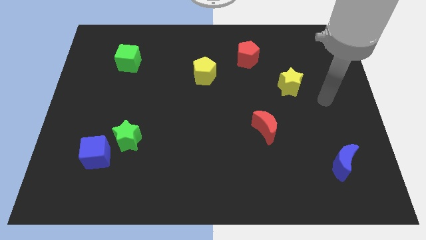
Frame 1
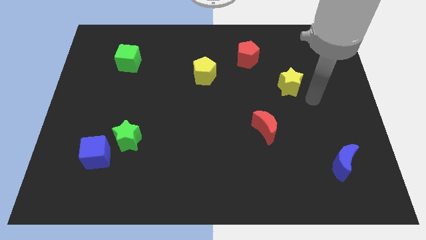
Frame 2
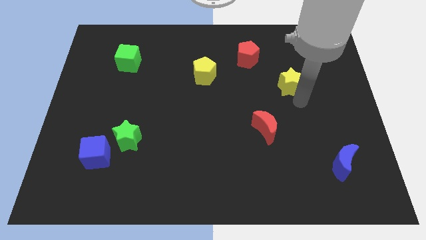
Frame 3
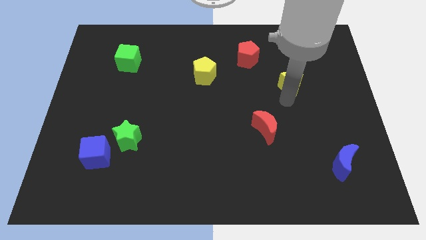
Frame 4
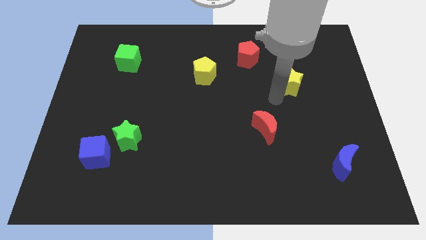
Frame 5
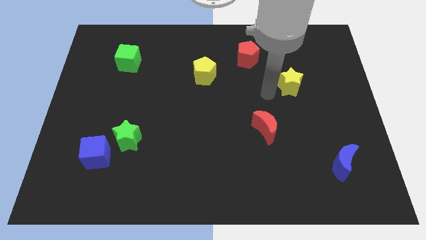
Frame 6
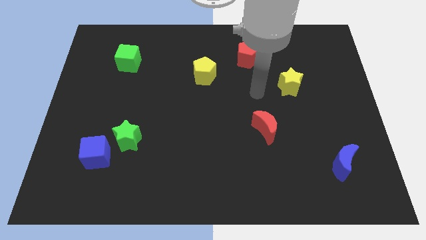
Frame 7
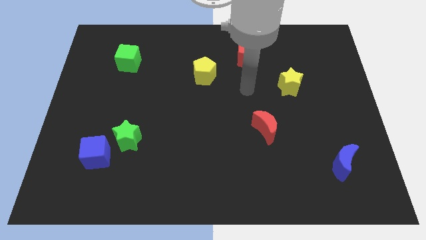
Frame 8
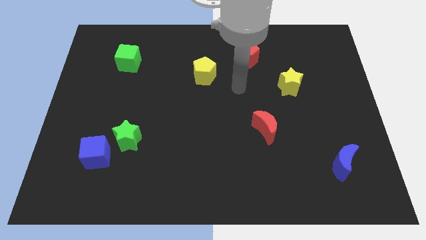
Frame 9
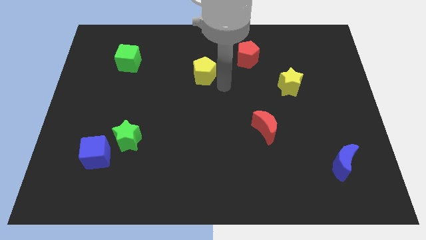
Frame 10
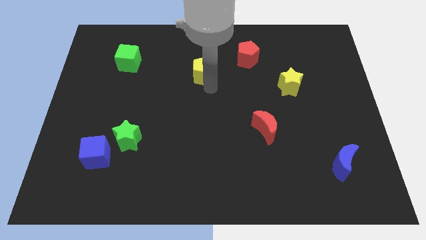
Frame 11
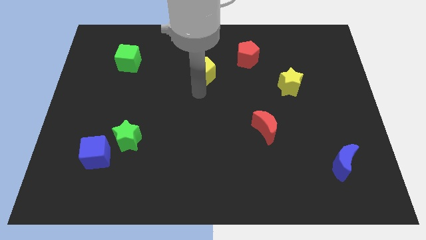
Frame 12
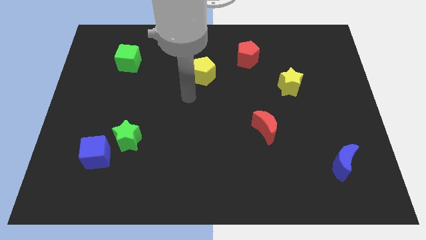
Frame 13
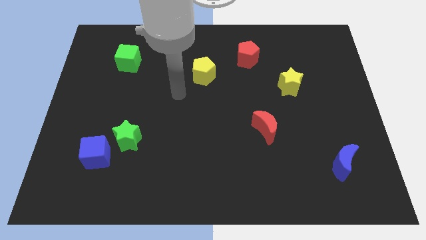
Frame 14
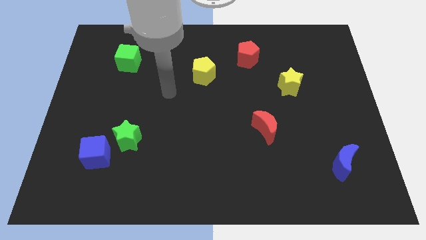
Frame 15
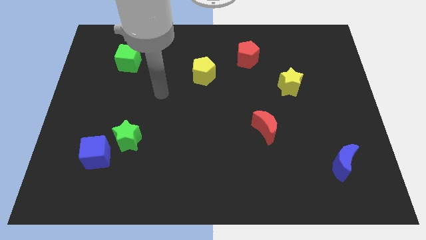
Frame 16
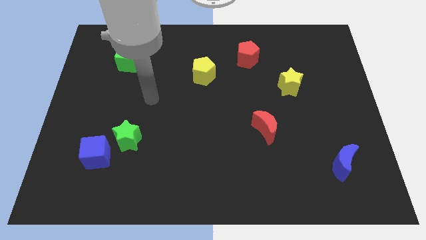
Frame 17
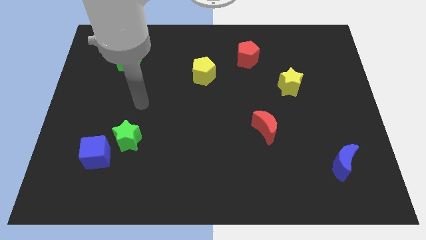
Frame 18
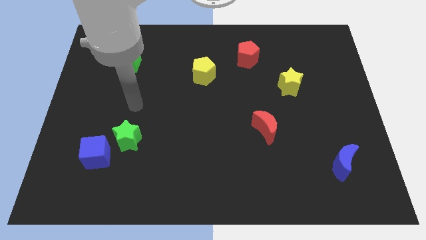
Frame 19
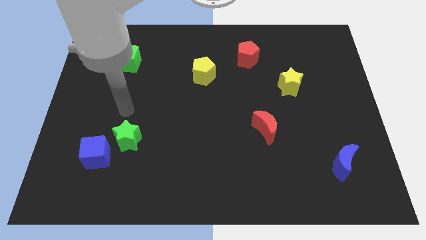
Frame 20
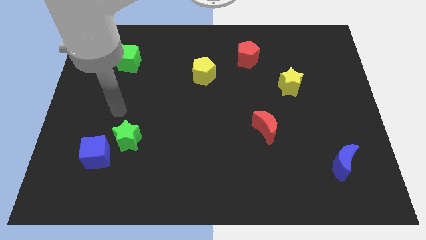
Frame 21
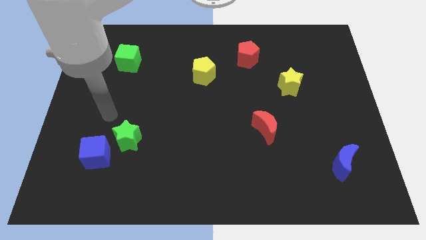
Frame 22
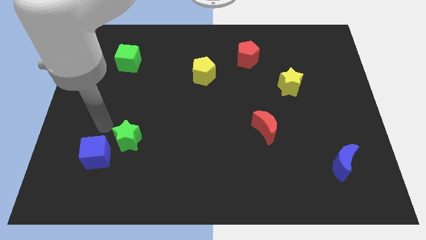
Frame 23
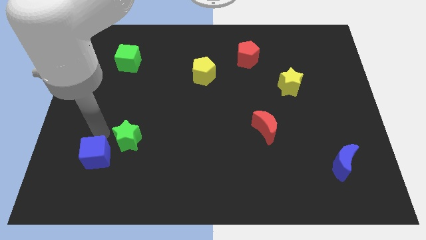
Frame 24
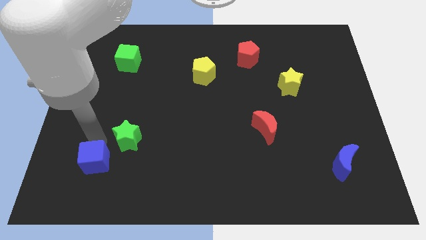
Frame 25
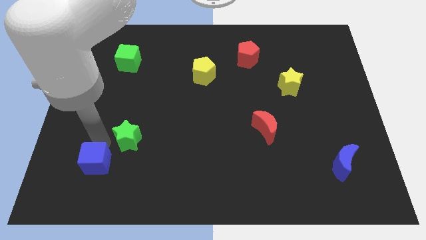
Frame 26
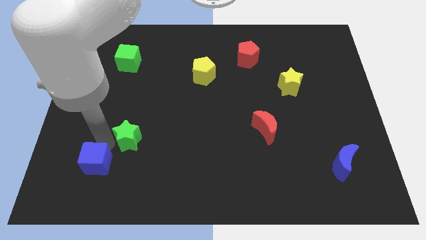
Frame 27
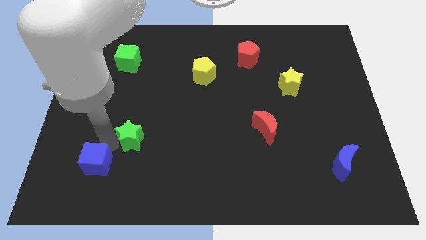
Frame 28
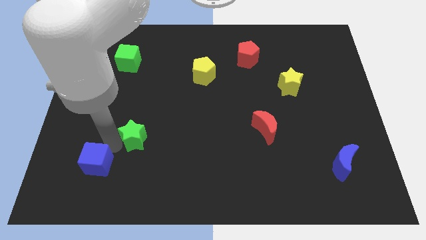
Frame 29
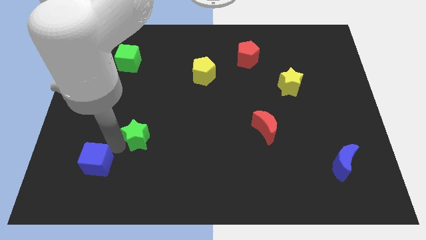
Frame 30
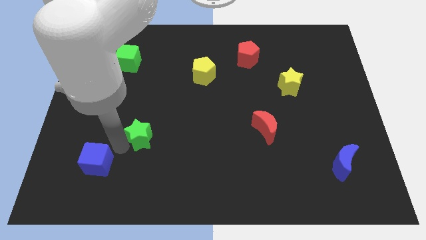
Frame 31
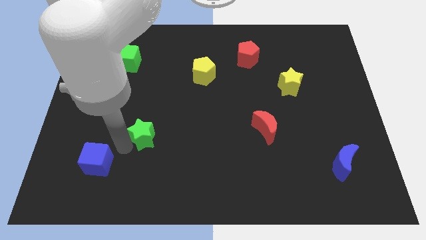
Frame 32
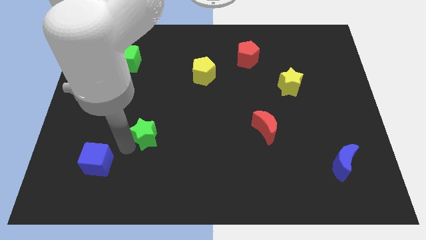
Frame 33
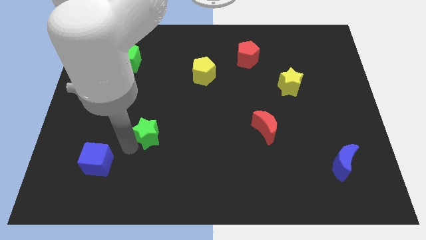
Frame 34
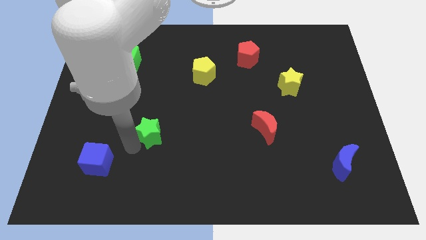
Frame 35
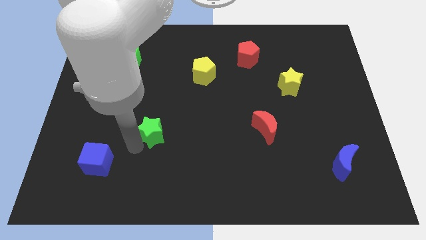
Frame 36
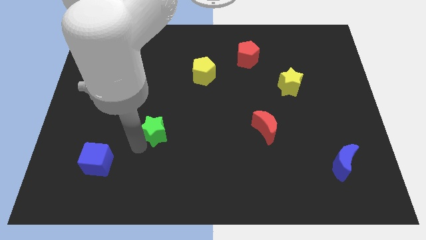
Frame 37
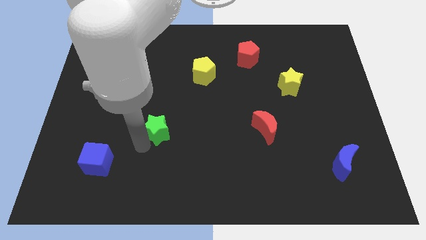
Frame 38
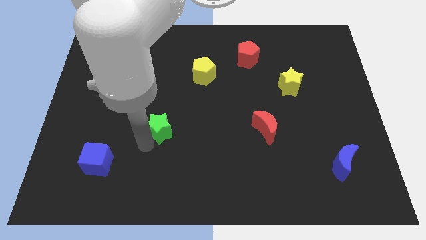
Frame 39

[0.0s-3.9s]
slide the green star to the right a bit

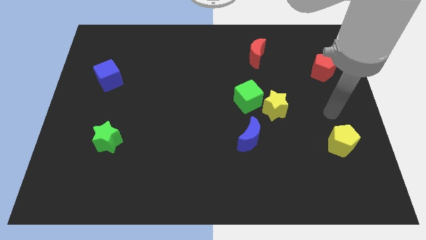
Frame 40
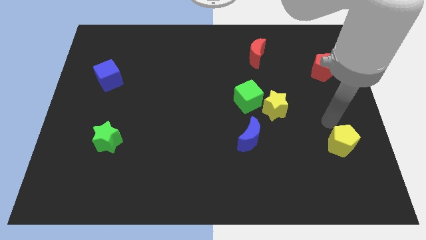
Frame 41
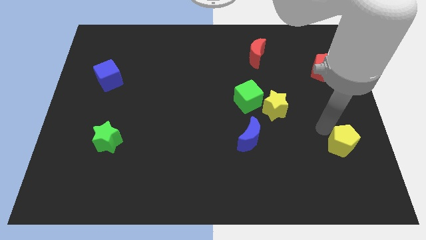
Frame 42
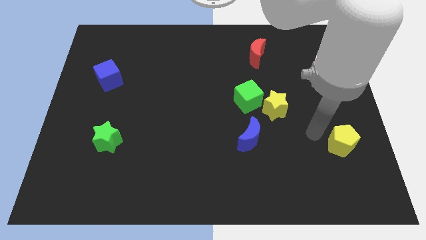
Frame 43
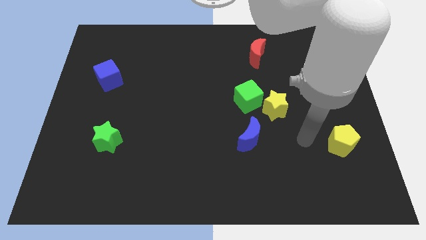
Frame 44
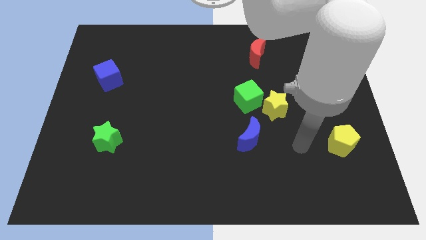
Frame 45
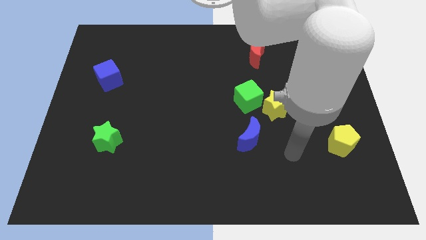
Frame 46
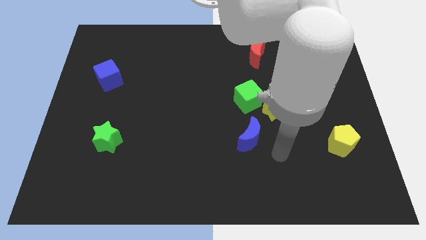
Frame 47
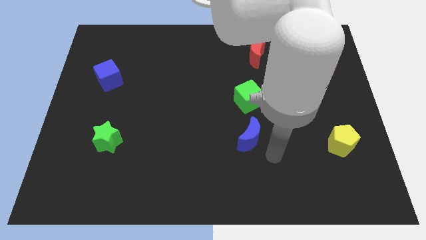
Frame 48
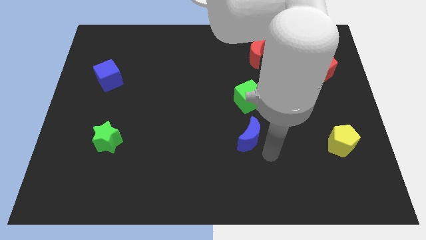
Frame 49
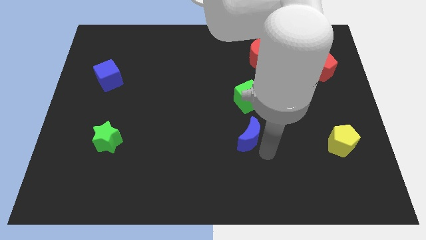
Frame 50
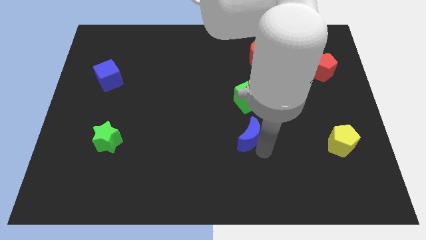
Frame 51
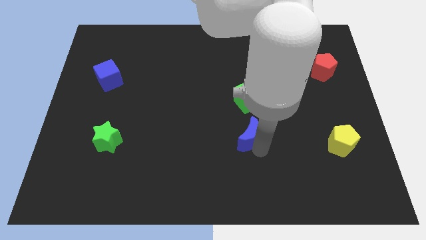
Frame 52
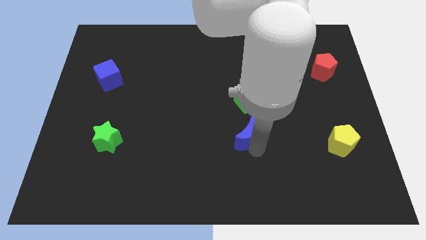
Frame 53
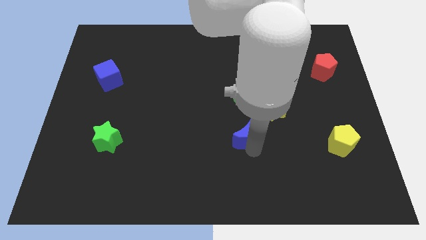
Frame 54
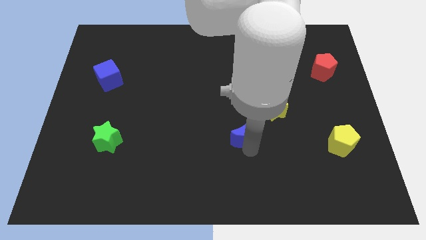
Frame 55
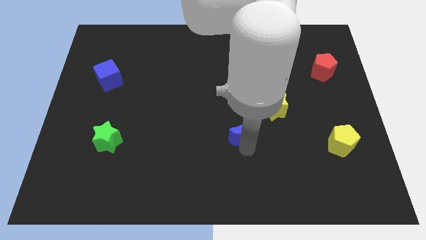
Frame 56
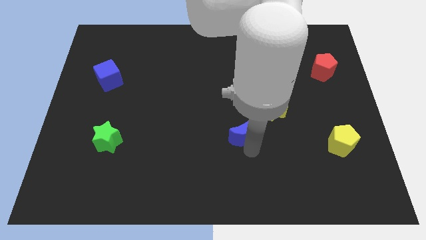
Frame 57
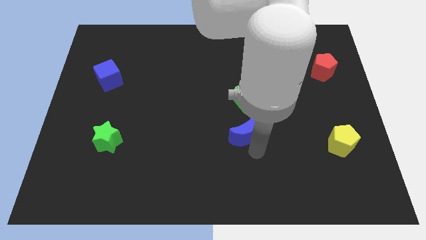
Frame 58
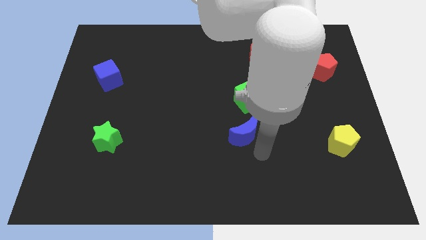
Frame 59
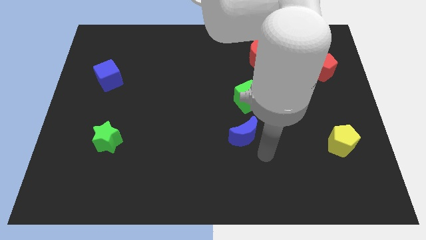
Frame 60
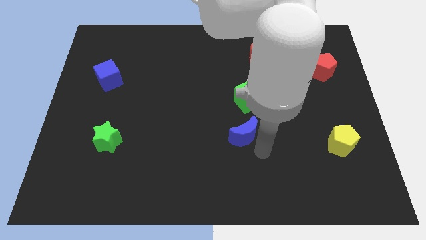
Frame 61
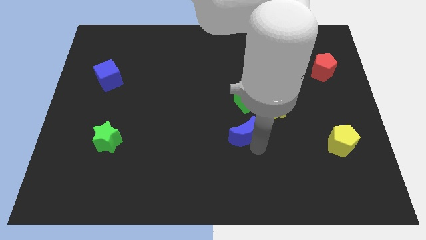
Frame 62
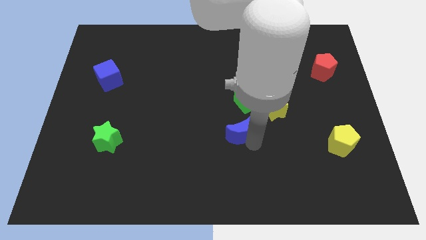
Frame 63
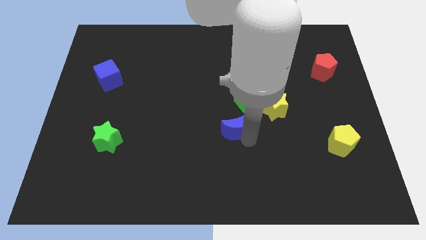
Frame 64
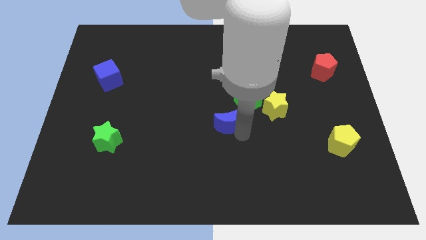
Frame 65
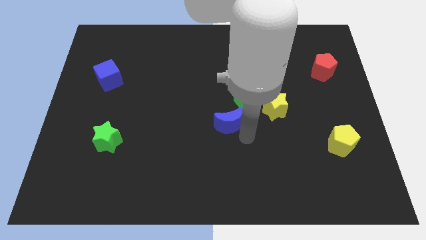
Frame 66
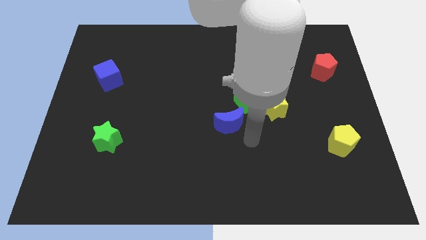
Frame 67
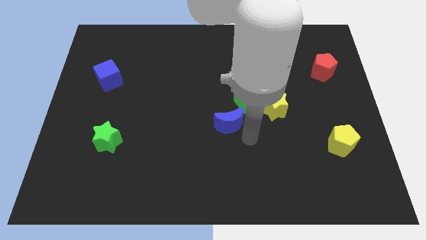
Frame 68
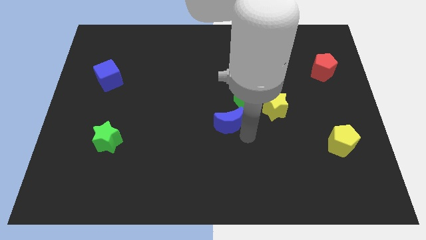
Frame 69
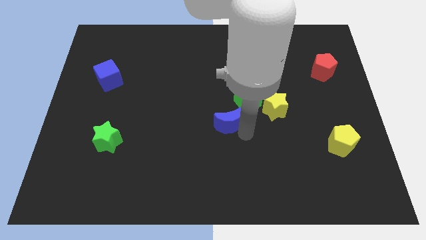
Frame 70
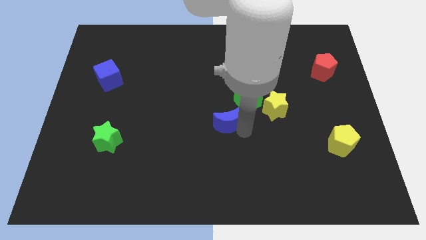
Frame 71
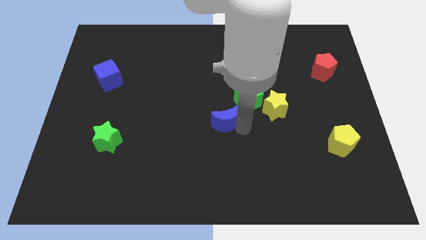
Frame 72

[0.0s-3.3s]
slide the blue moon a little bit up and then to the left

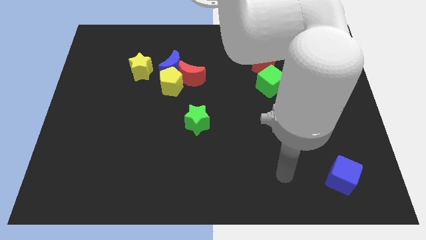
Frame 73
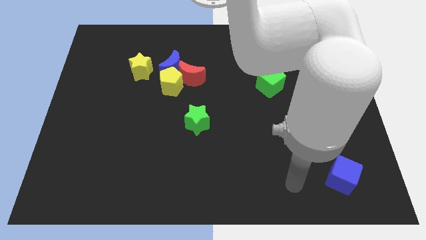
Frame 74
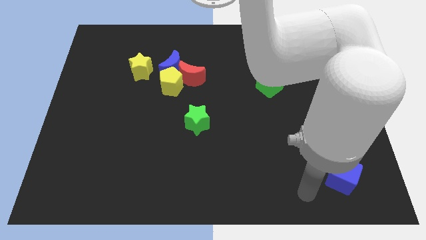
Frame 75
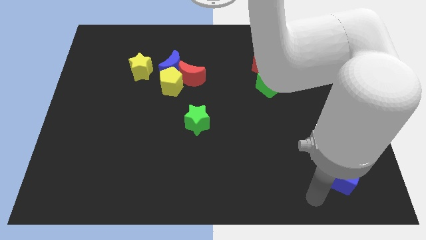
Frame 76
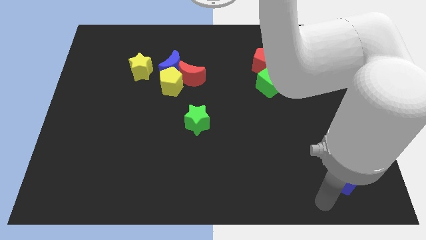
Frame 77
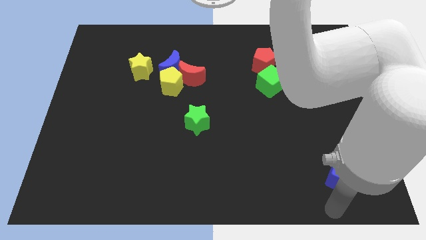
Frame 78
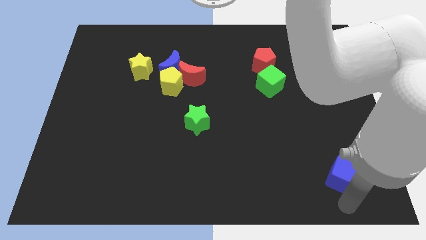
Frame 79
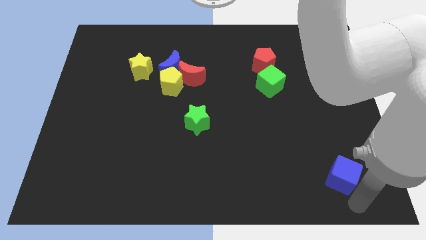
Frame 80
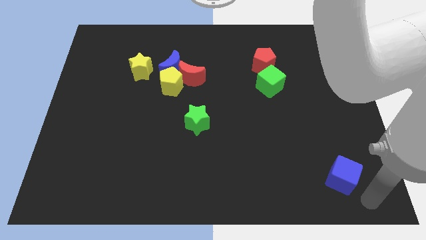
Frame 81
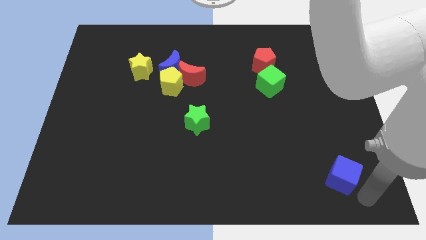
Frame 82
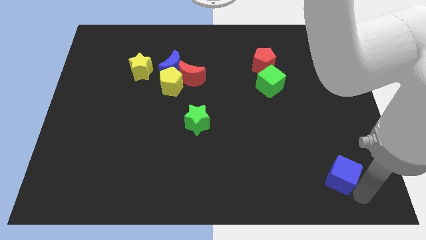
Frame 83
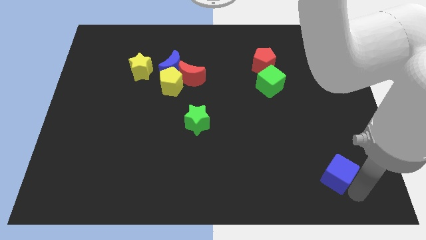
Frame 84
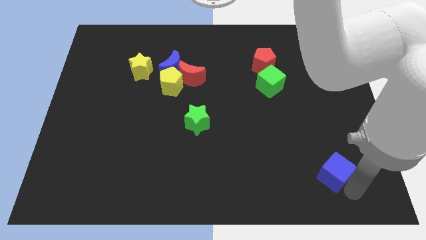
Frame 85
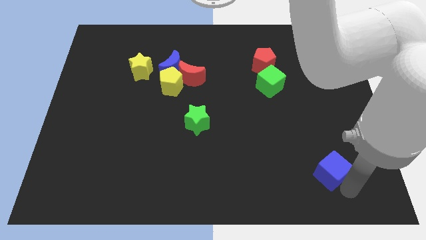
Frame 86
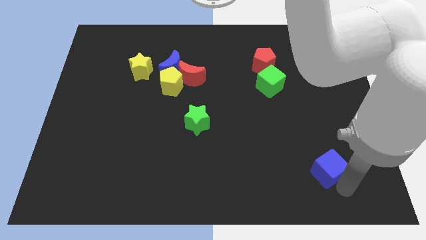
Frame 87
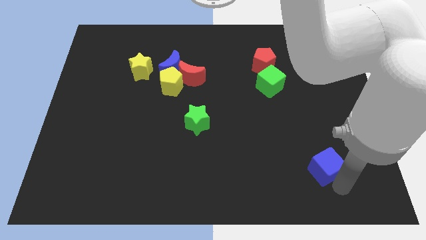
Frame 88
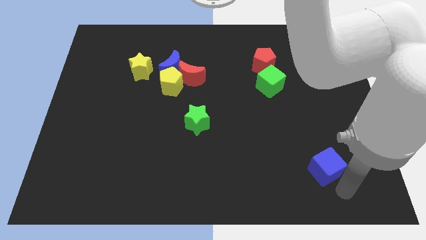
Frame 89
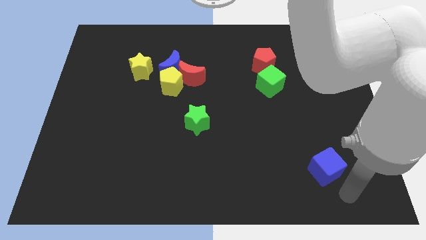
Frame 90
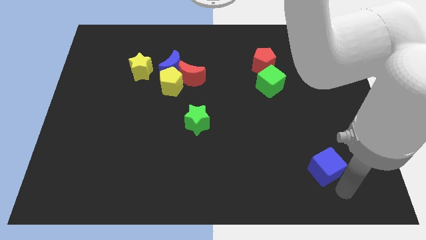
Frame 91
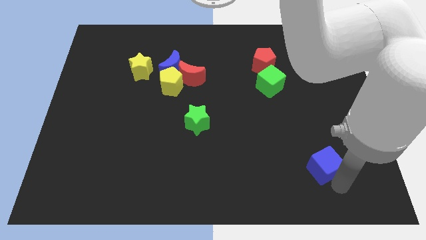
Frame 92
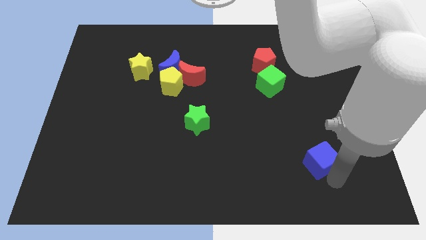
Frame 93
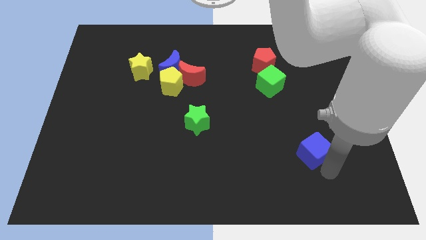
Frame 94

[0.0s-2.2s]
slightly slide the blue cube up and then to the left
